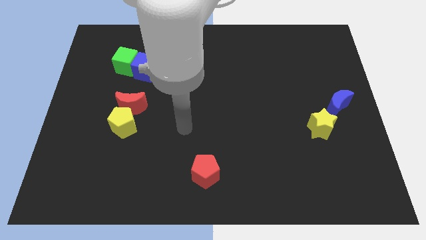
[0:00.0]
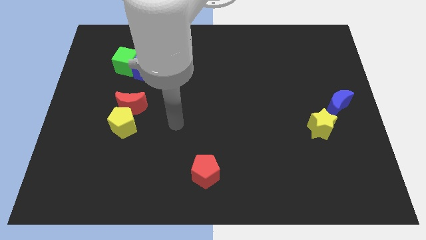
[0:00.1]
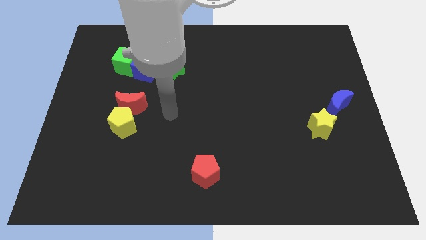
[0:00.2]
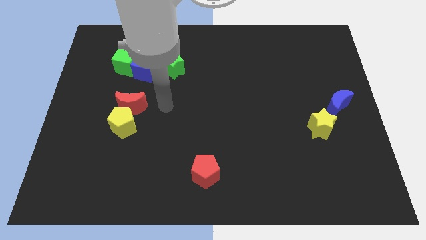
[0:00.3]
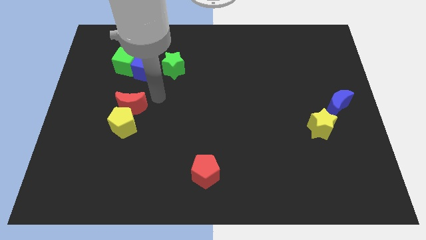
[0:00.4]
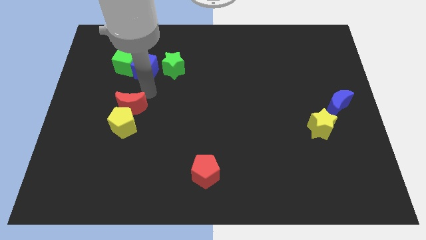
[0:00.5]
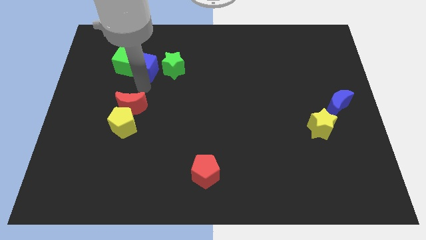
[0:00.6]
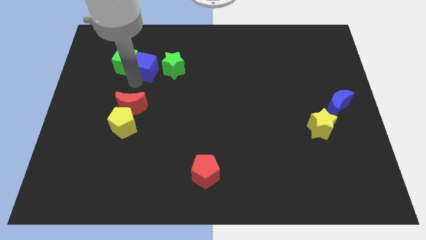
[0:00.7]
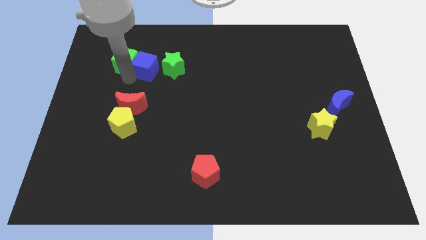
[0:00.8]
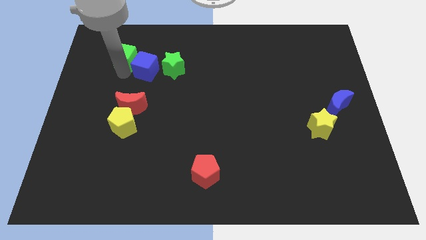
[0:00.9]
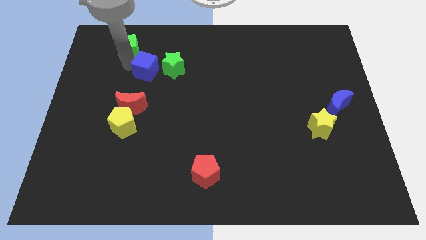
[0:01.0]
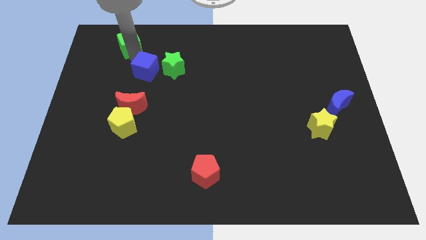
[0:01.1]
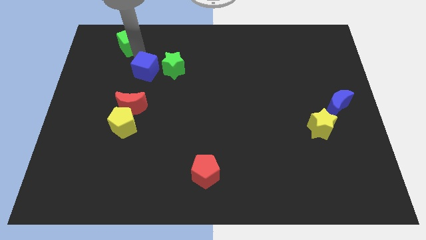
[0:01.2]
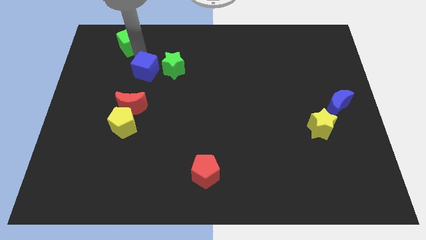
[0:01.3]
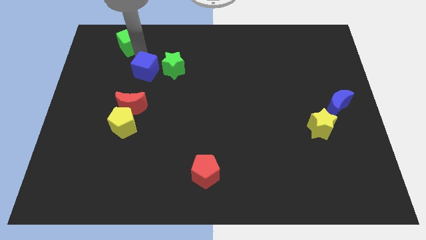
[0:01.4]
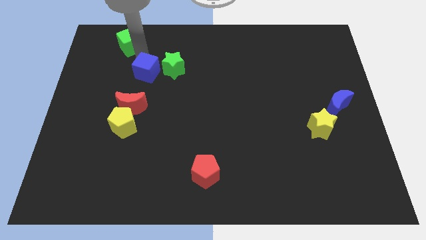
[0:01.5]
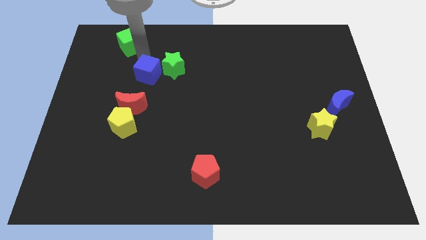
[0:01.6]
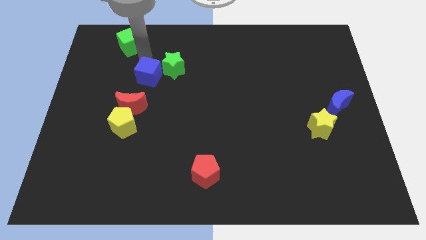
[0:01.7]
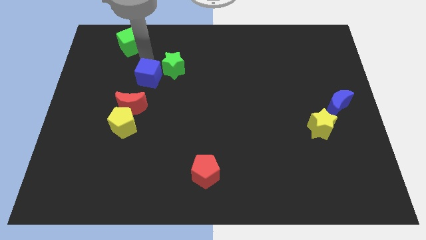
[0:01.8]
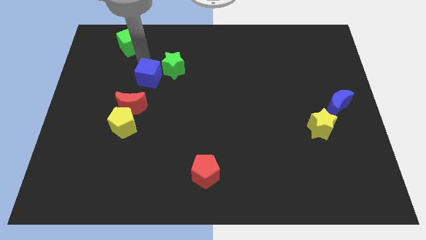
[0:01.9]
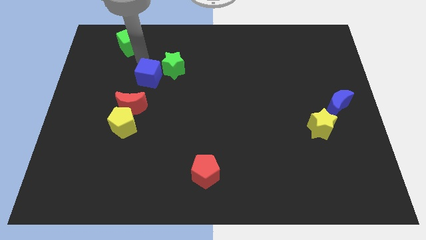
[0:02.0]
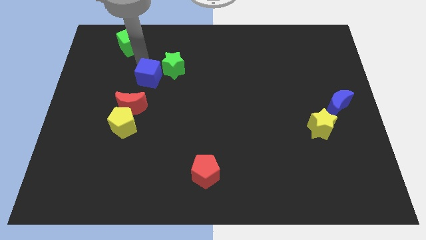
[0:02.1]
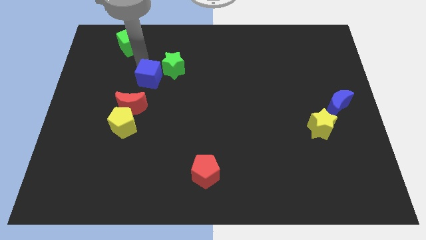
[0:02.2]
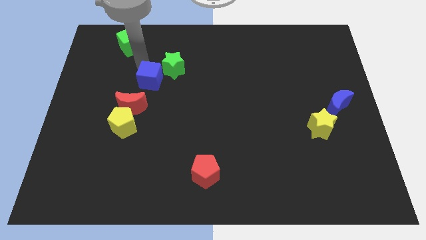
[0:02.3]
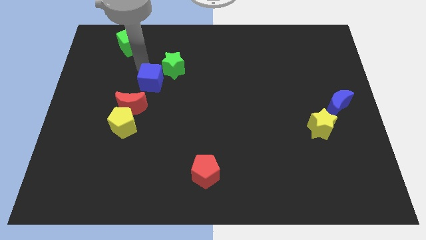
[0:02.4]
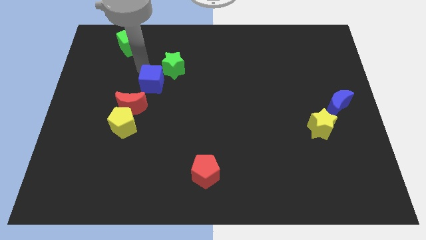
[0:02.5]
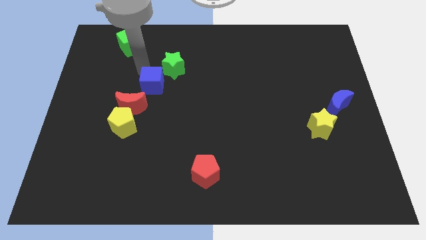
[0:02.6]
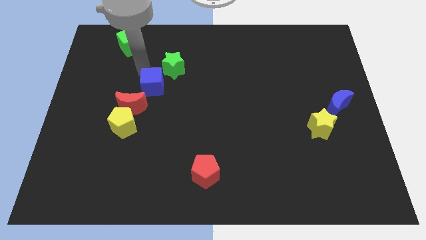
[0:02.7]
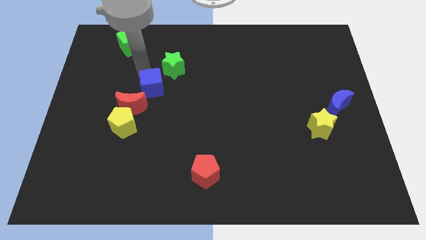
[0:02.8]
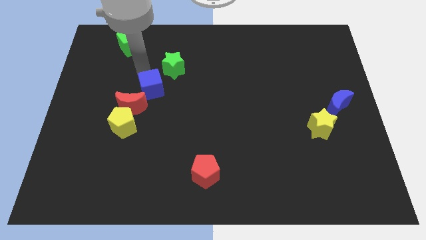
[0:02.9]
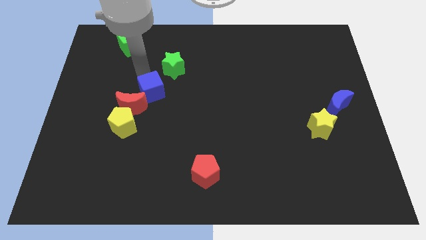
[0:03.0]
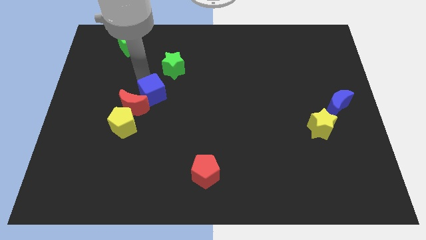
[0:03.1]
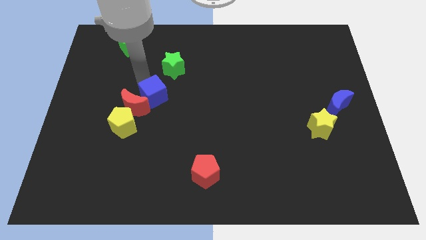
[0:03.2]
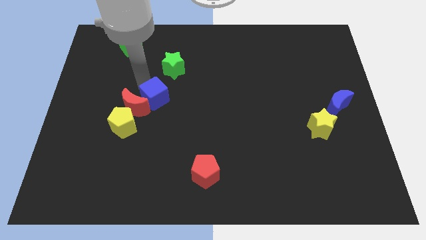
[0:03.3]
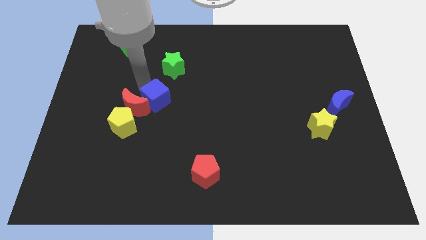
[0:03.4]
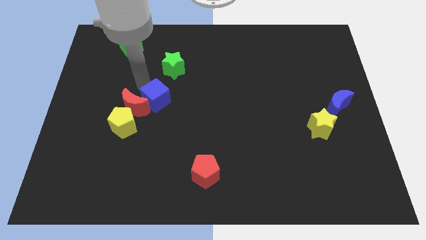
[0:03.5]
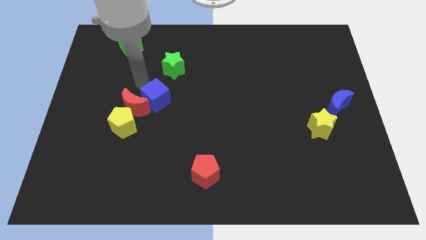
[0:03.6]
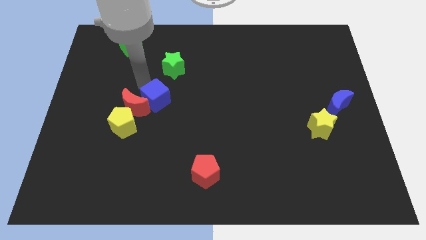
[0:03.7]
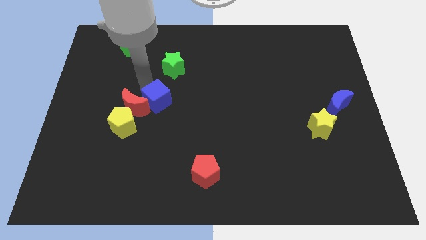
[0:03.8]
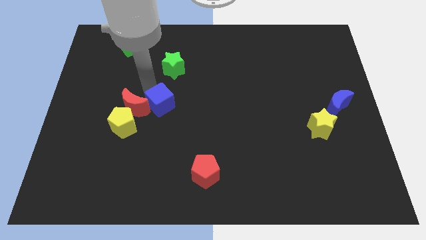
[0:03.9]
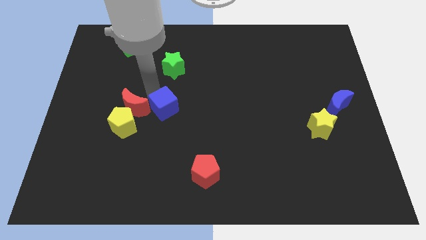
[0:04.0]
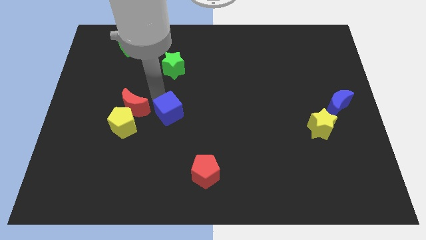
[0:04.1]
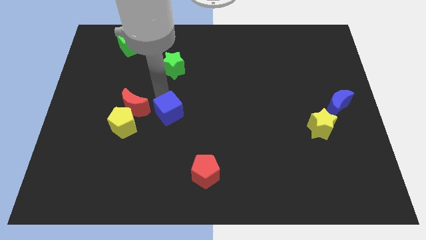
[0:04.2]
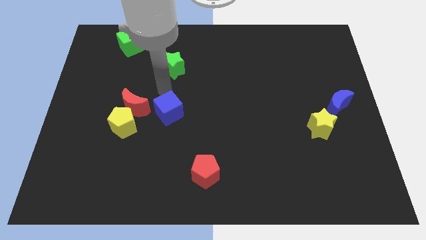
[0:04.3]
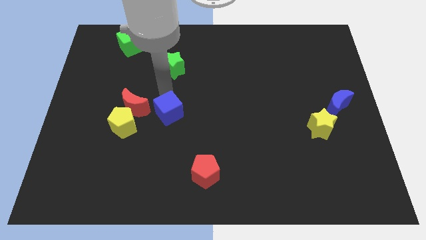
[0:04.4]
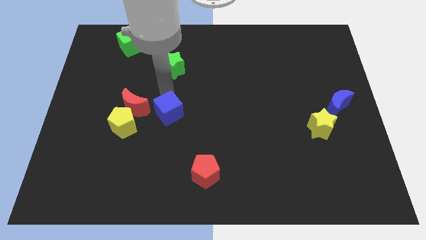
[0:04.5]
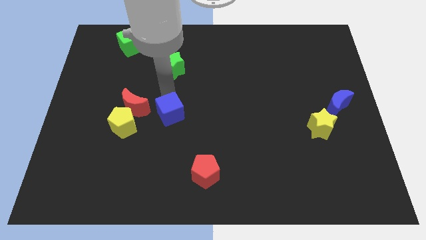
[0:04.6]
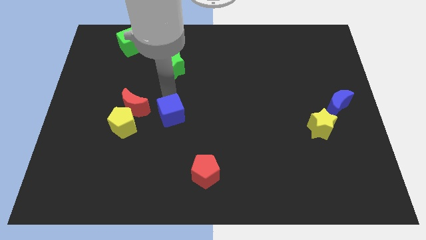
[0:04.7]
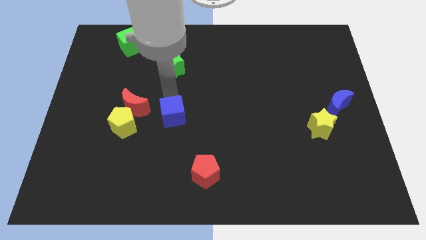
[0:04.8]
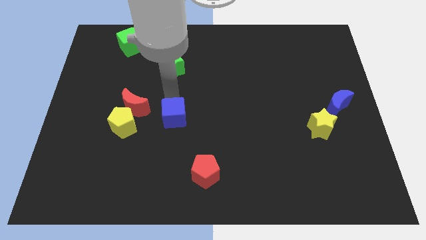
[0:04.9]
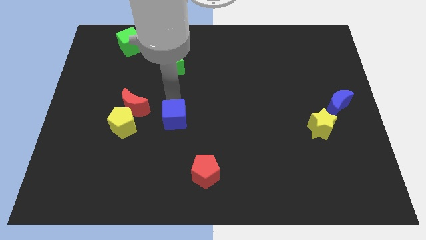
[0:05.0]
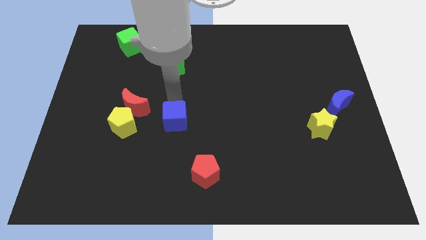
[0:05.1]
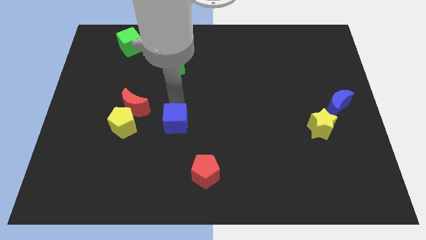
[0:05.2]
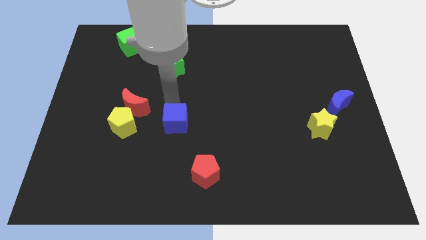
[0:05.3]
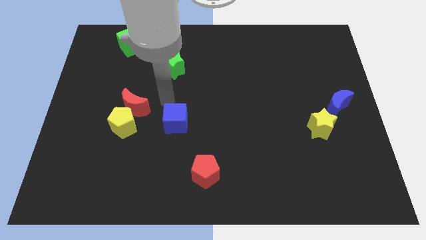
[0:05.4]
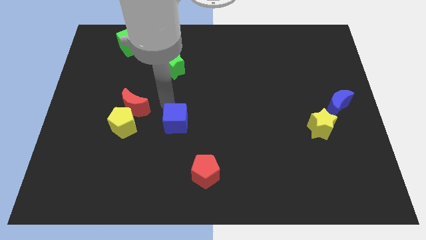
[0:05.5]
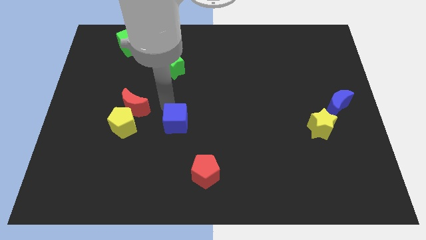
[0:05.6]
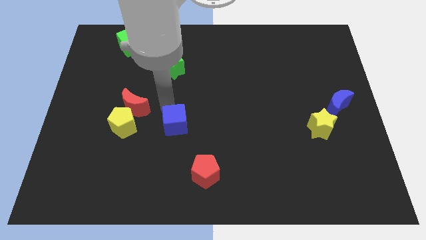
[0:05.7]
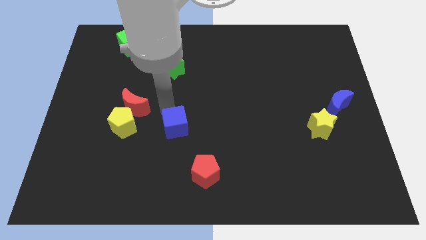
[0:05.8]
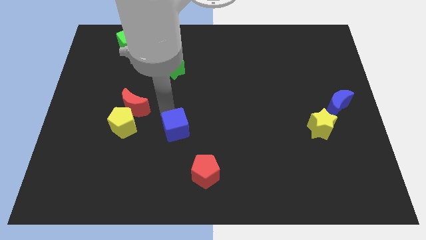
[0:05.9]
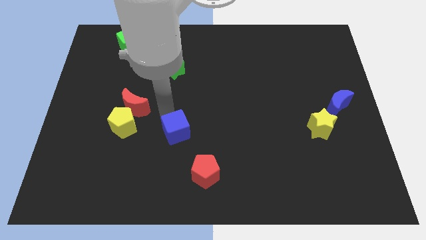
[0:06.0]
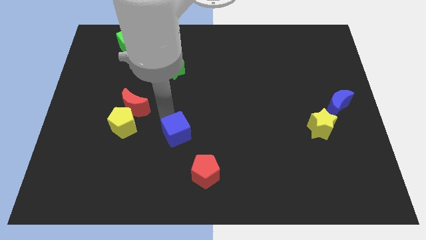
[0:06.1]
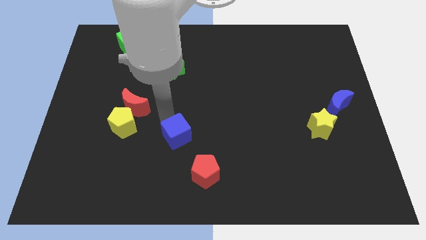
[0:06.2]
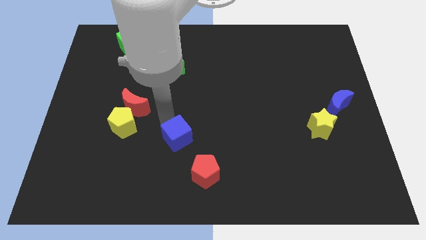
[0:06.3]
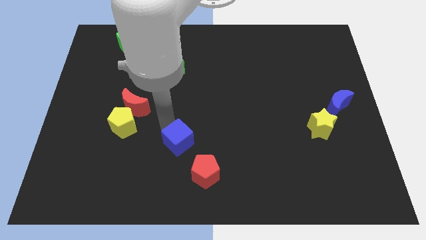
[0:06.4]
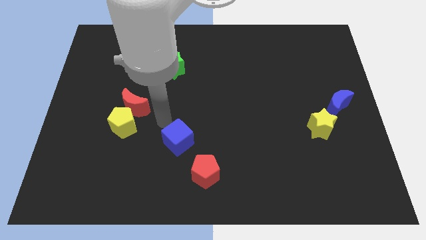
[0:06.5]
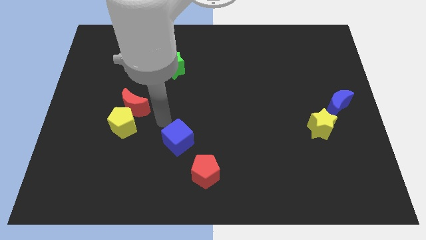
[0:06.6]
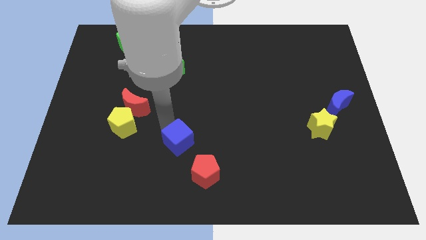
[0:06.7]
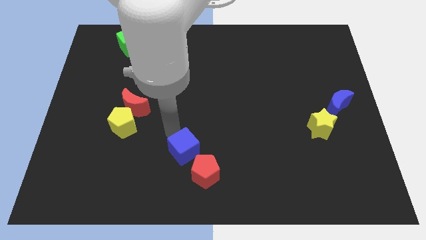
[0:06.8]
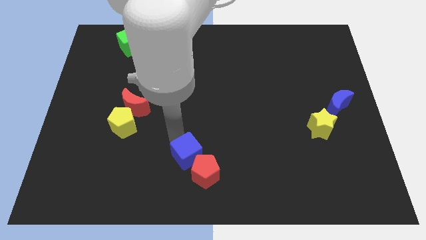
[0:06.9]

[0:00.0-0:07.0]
slide the blue cube to the red pentagon

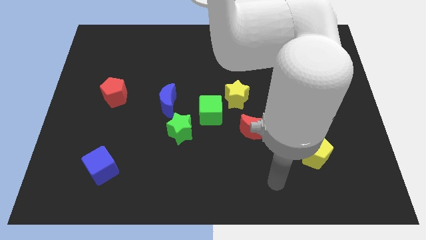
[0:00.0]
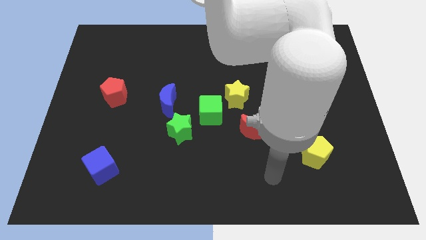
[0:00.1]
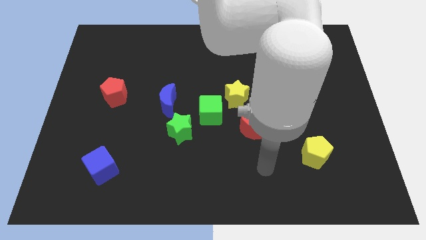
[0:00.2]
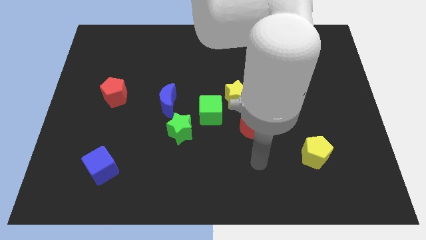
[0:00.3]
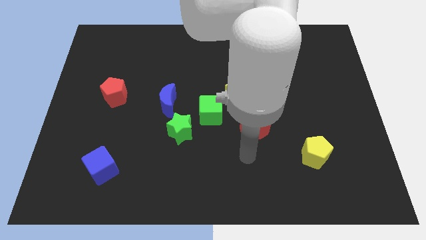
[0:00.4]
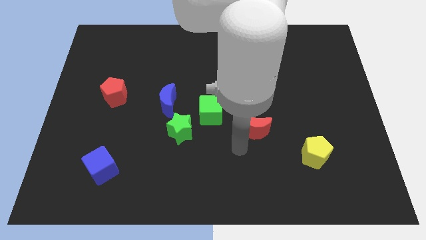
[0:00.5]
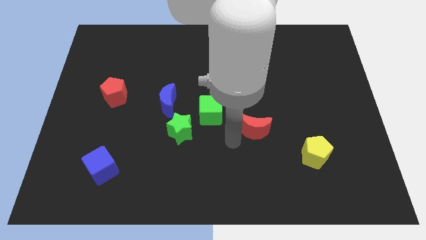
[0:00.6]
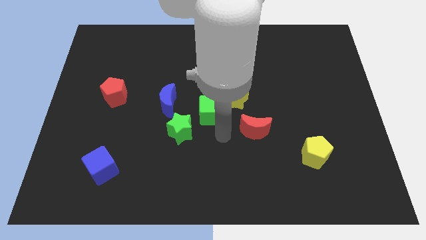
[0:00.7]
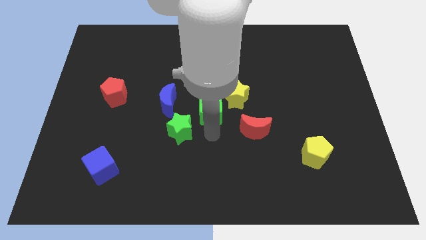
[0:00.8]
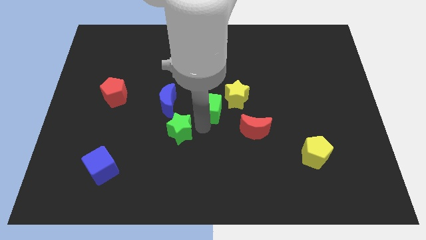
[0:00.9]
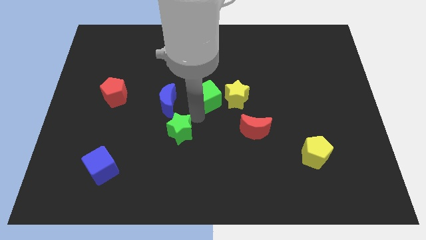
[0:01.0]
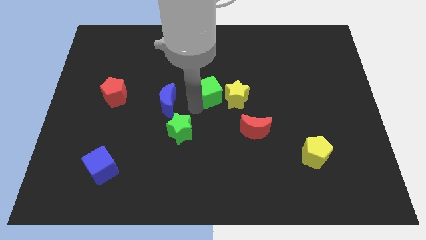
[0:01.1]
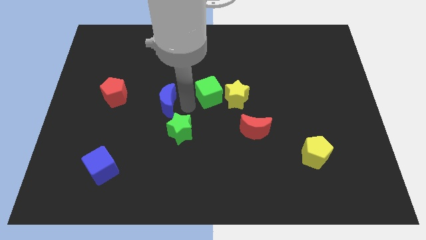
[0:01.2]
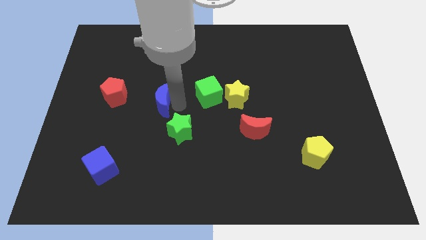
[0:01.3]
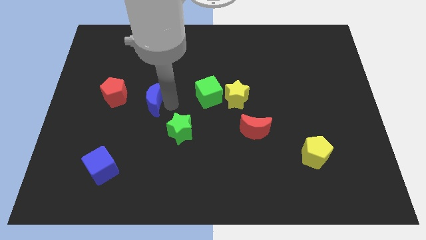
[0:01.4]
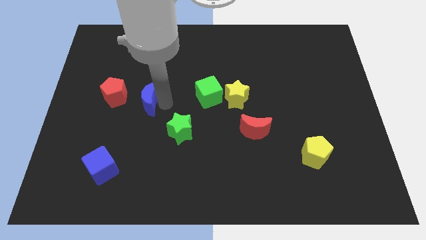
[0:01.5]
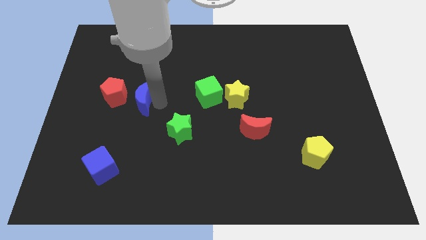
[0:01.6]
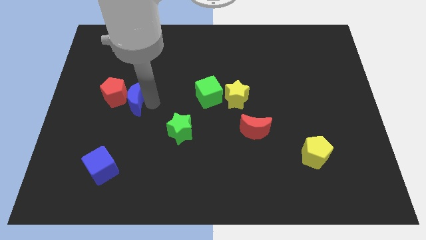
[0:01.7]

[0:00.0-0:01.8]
put the blue moon close to the red pentagon
